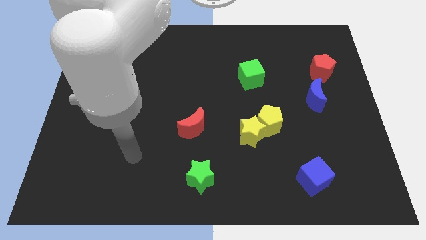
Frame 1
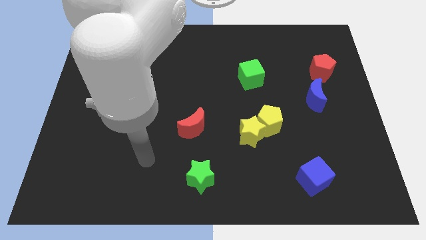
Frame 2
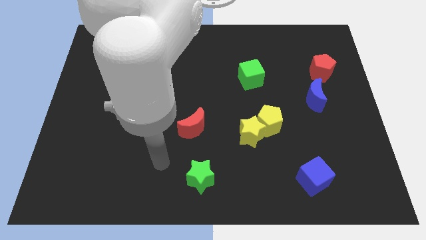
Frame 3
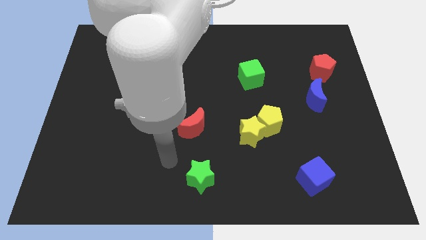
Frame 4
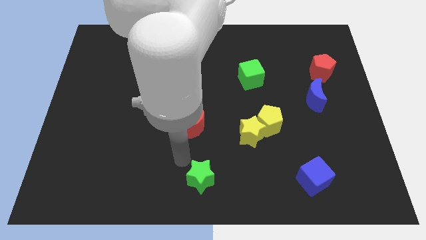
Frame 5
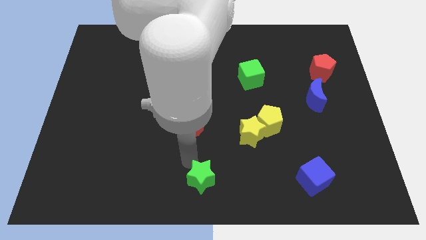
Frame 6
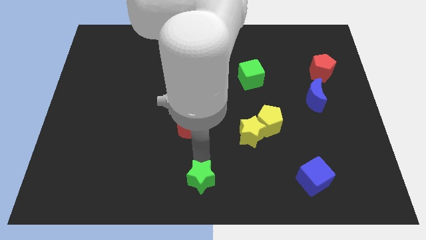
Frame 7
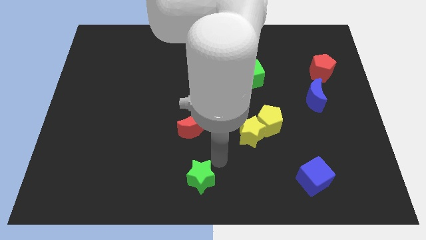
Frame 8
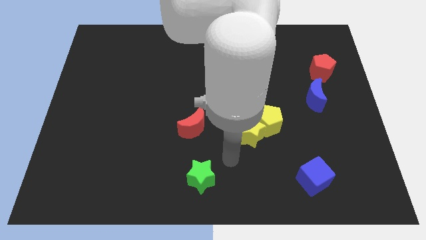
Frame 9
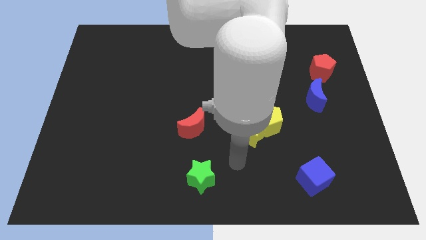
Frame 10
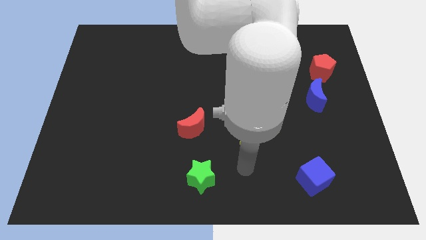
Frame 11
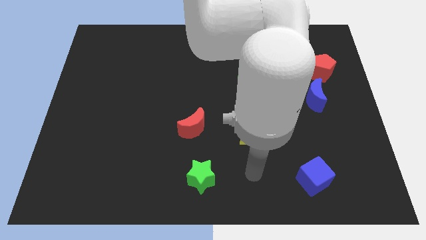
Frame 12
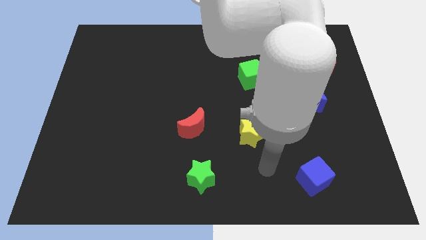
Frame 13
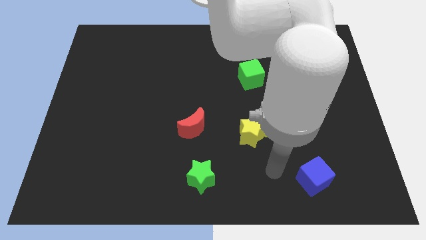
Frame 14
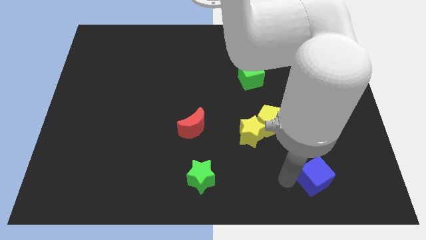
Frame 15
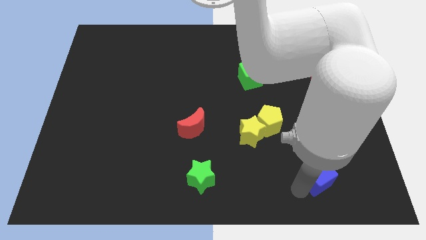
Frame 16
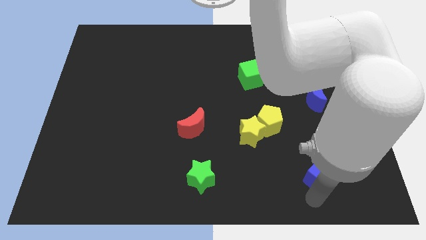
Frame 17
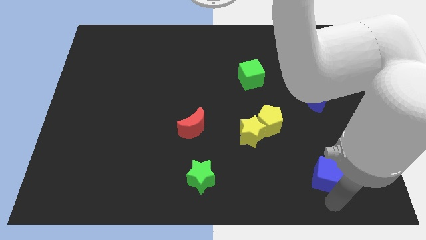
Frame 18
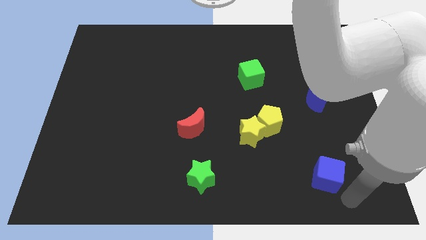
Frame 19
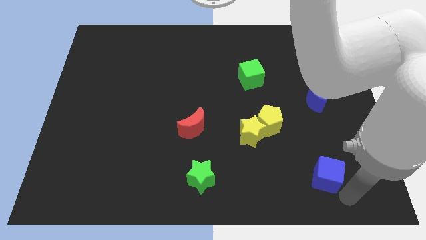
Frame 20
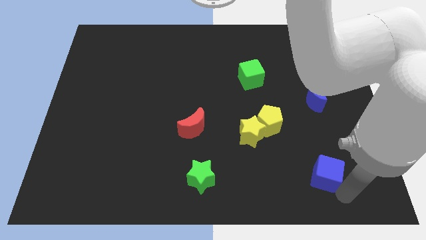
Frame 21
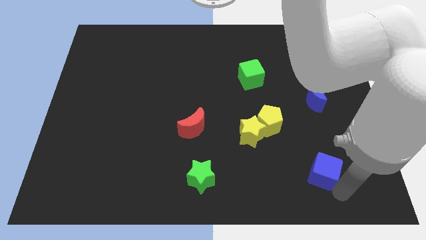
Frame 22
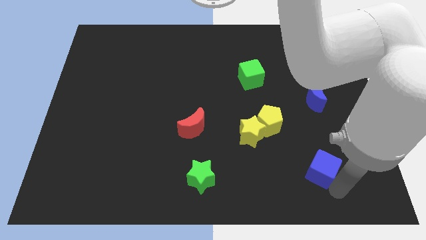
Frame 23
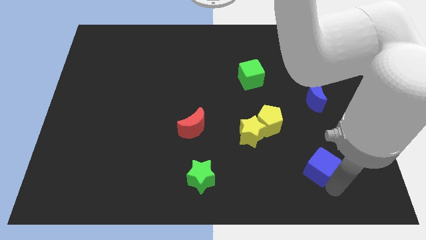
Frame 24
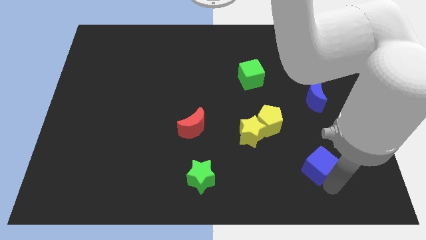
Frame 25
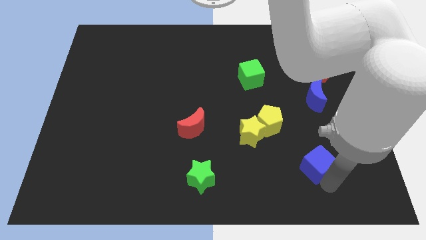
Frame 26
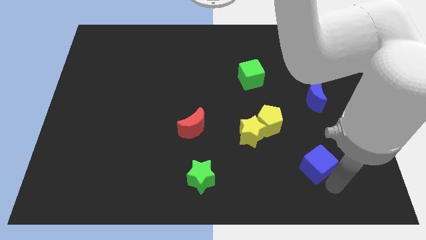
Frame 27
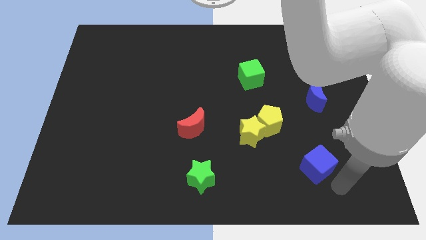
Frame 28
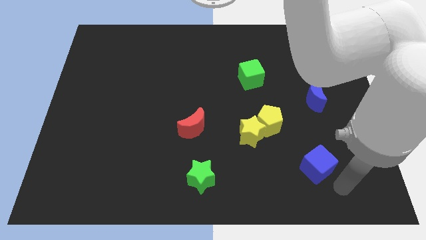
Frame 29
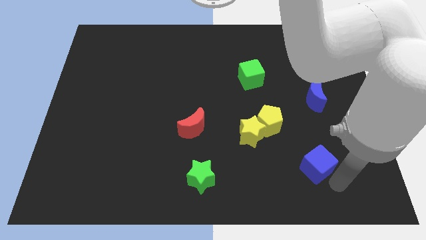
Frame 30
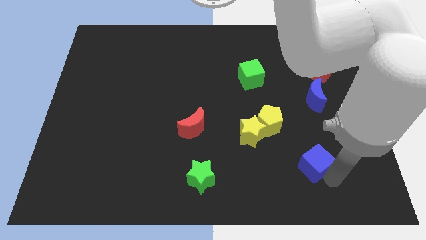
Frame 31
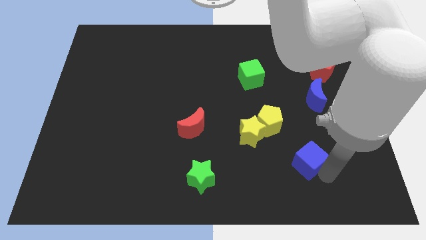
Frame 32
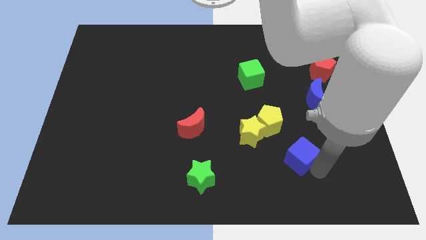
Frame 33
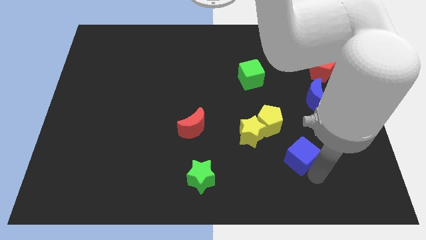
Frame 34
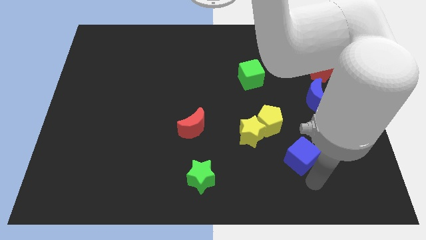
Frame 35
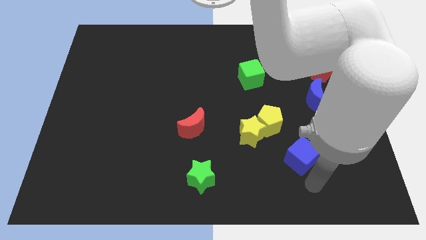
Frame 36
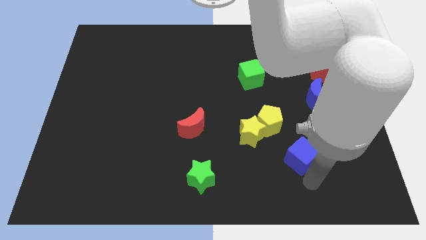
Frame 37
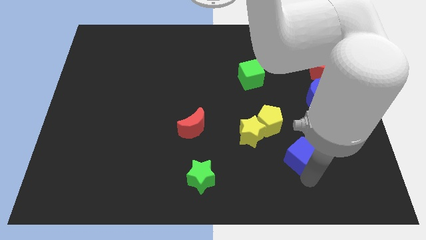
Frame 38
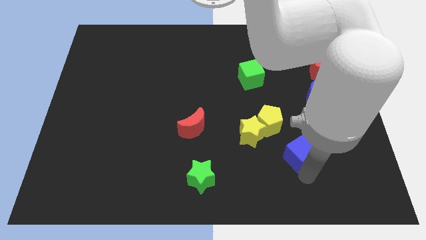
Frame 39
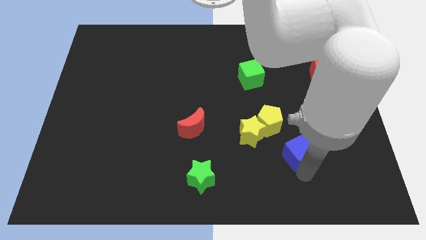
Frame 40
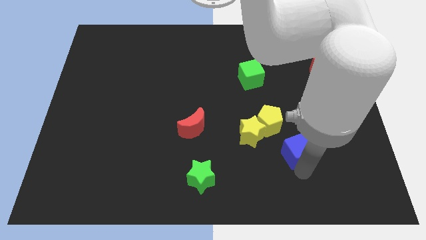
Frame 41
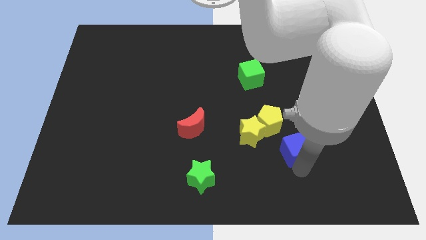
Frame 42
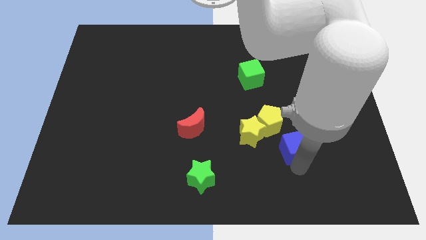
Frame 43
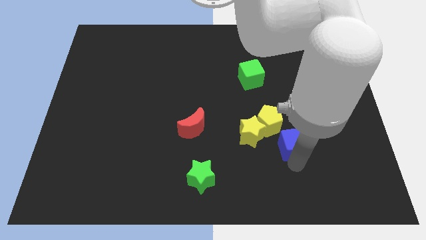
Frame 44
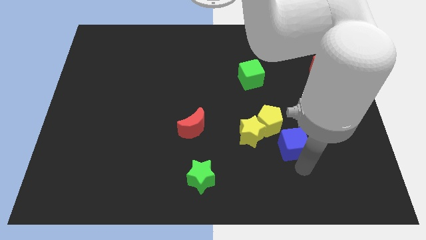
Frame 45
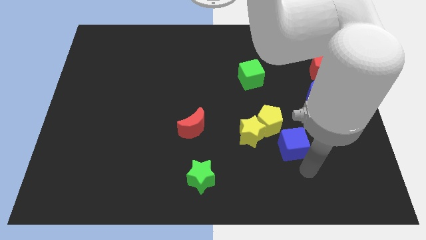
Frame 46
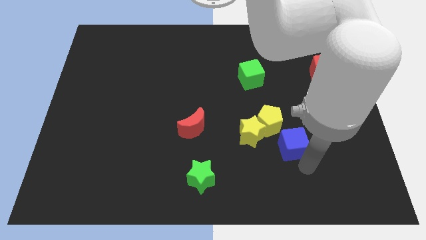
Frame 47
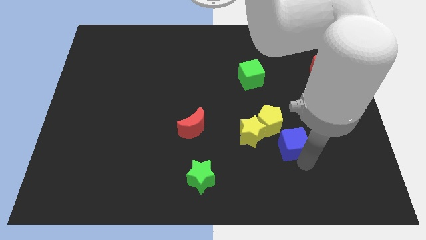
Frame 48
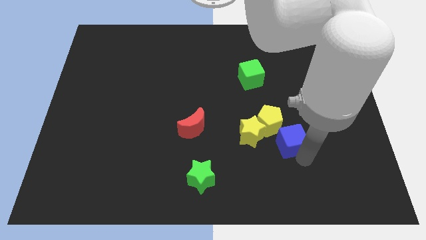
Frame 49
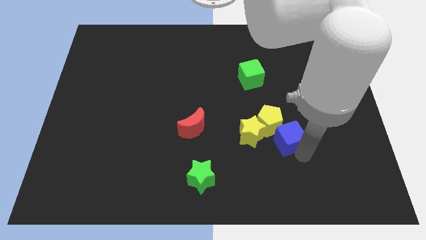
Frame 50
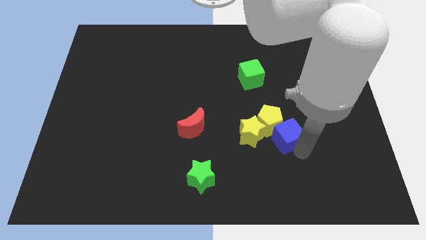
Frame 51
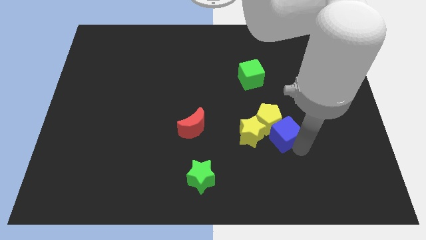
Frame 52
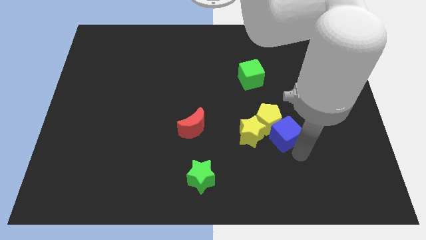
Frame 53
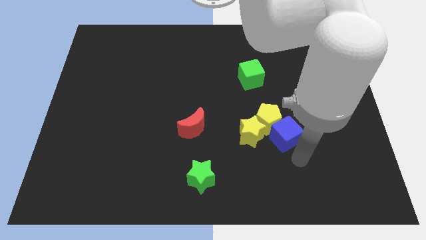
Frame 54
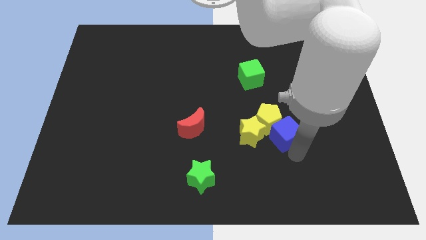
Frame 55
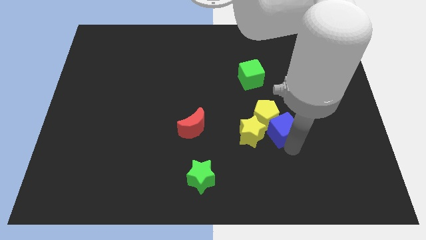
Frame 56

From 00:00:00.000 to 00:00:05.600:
push the blue cube diagonally up and to the right of the yellow star

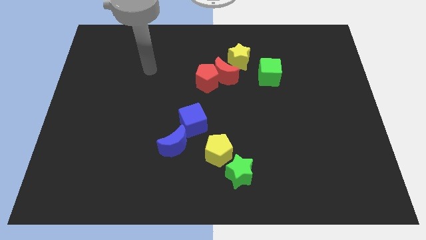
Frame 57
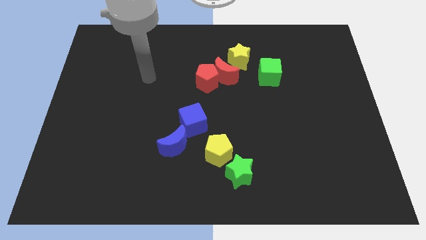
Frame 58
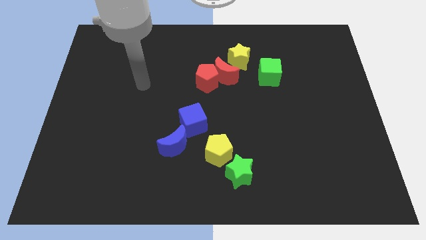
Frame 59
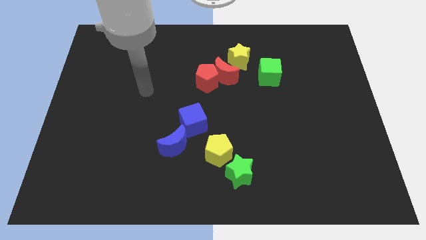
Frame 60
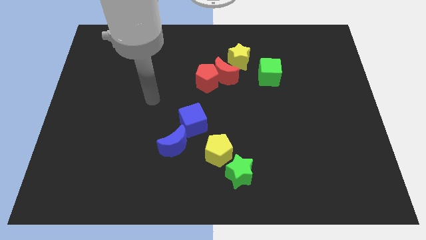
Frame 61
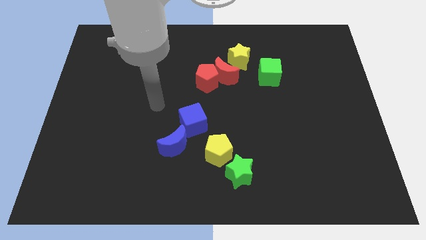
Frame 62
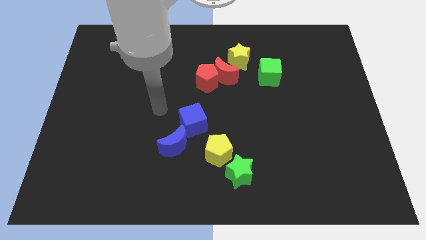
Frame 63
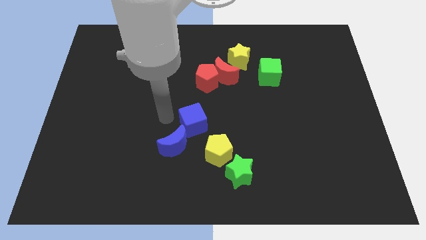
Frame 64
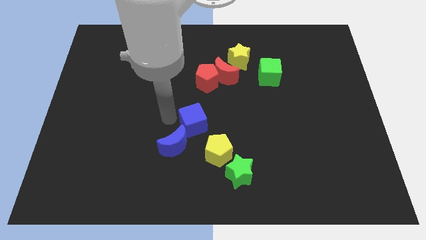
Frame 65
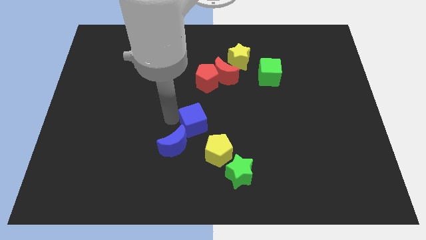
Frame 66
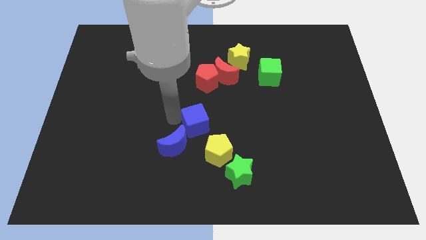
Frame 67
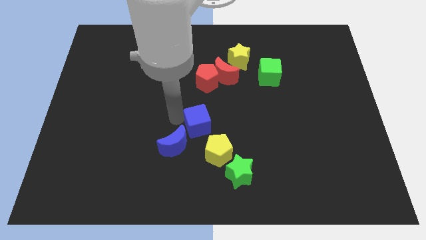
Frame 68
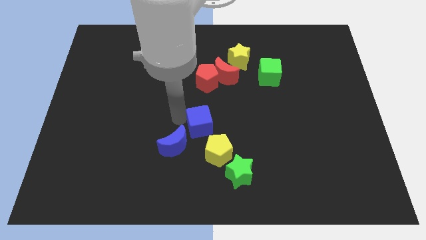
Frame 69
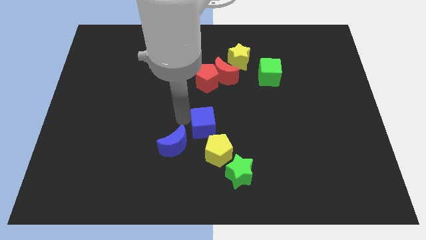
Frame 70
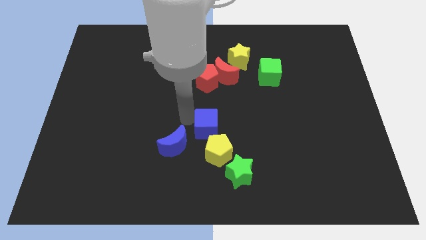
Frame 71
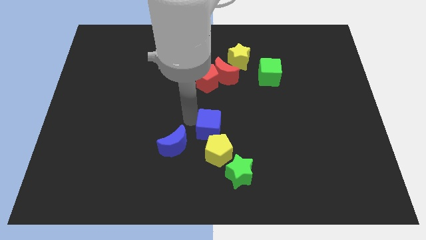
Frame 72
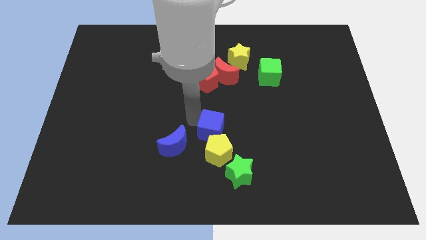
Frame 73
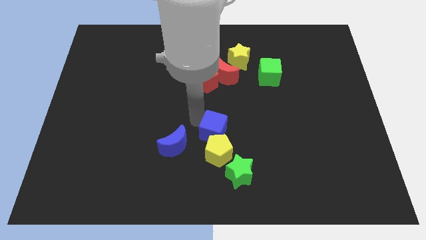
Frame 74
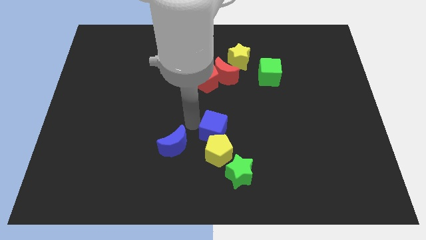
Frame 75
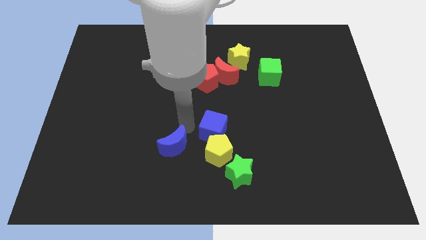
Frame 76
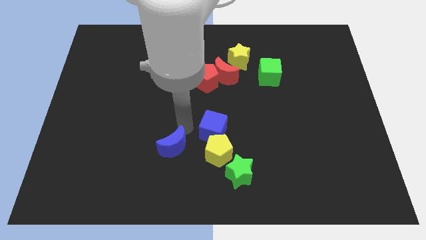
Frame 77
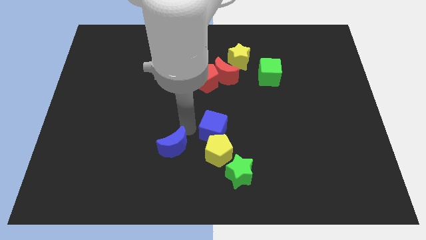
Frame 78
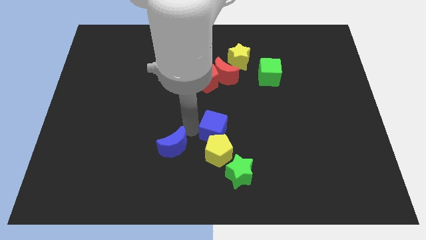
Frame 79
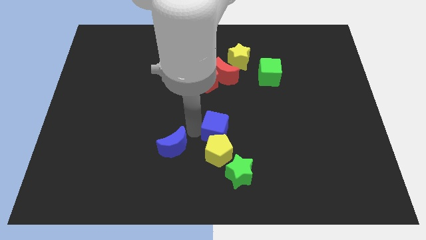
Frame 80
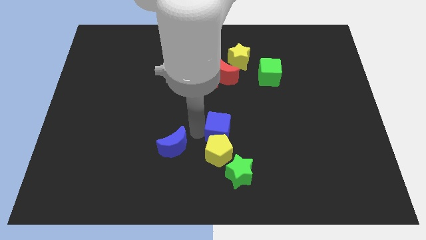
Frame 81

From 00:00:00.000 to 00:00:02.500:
slide the blue cube above the green star
